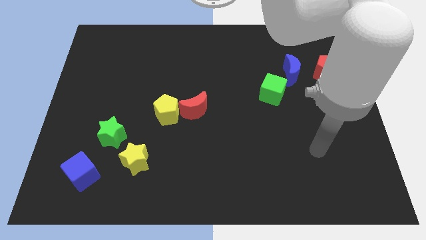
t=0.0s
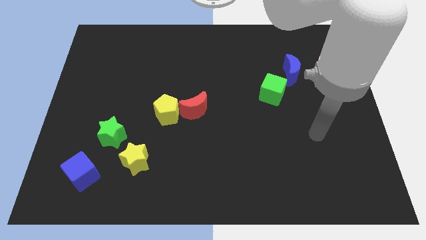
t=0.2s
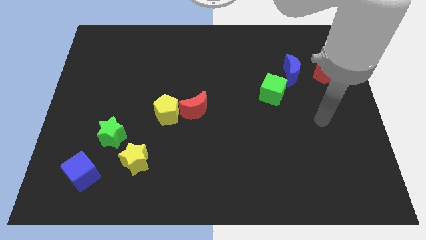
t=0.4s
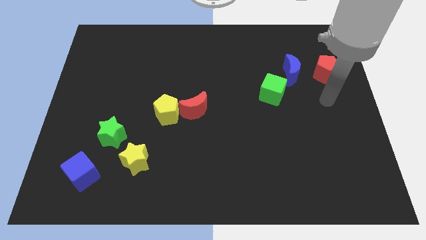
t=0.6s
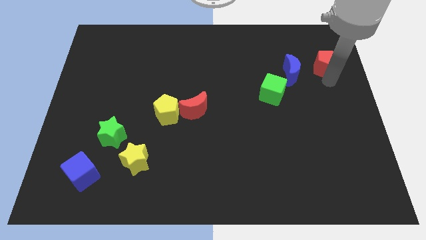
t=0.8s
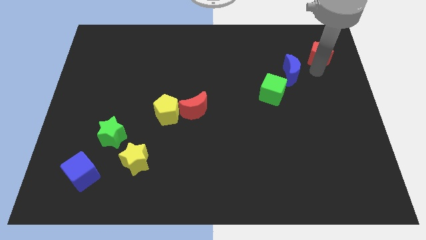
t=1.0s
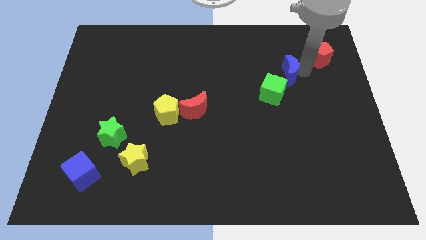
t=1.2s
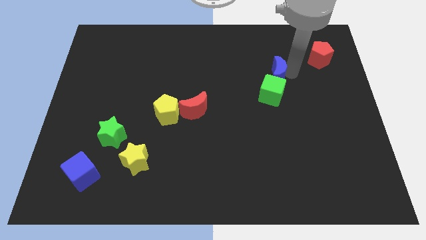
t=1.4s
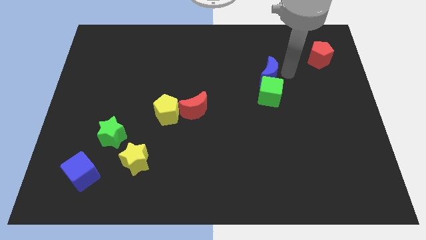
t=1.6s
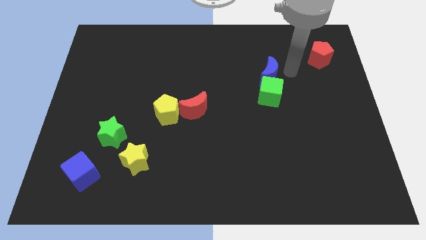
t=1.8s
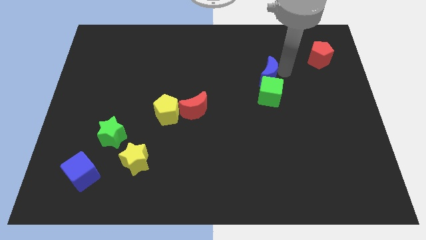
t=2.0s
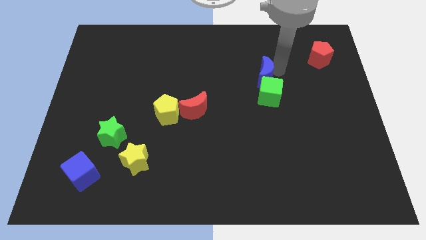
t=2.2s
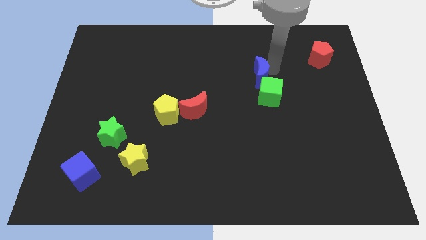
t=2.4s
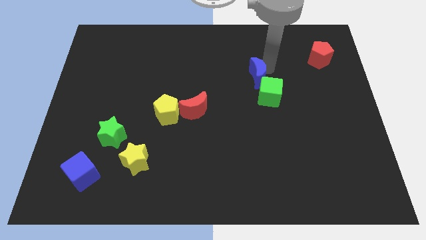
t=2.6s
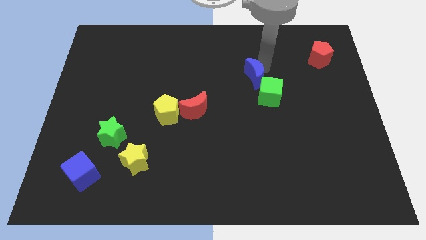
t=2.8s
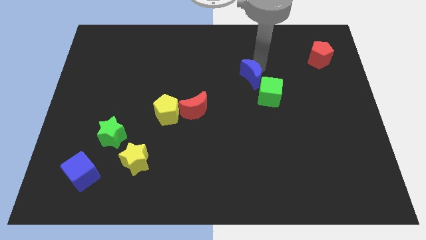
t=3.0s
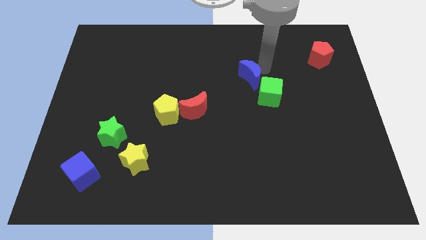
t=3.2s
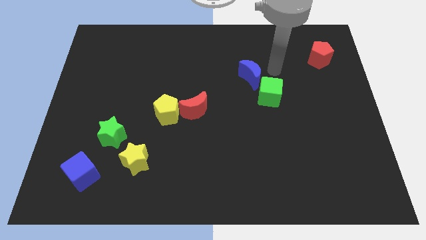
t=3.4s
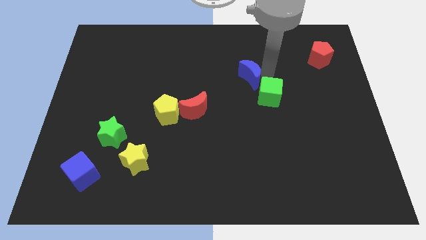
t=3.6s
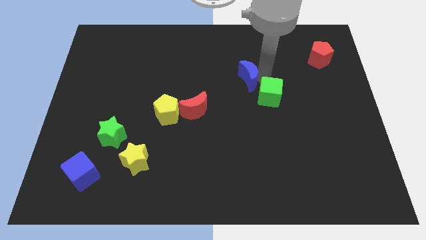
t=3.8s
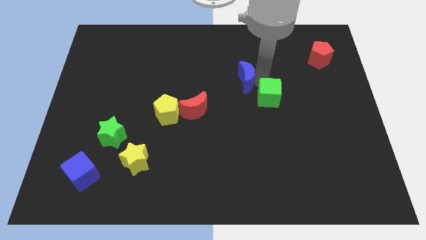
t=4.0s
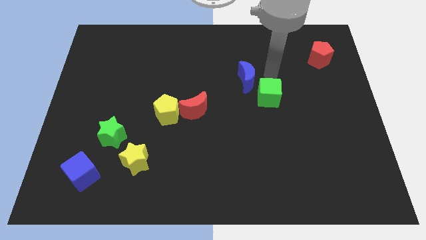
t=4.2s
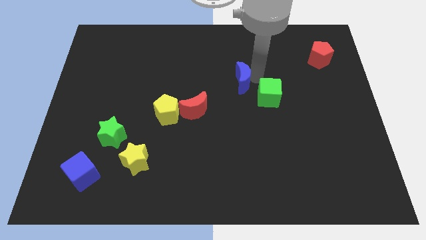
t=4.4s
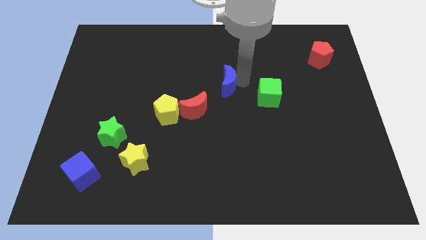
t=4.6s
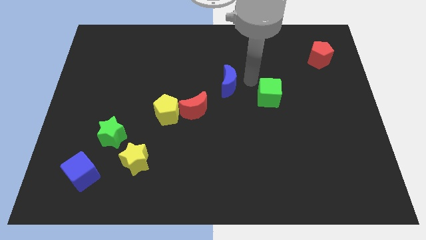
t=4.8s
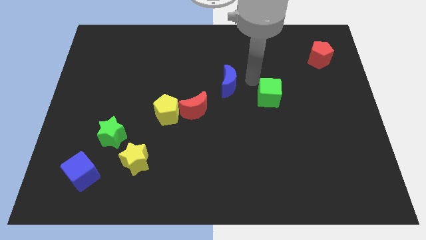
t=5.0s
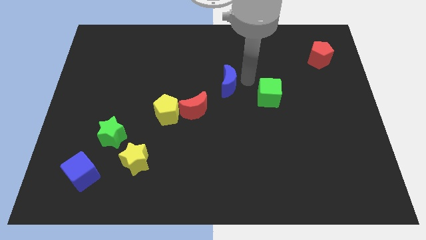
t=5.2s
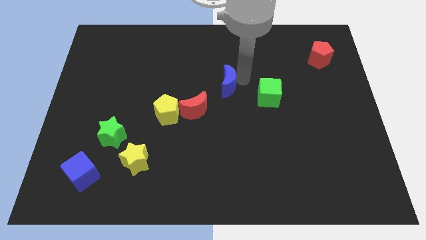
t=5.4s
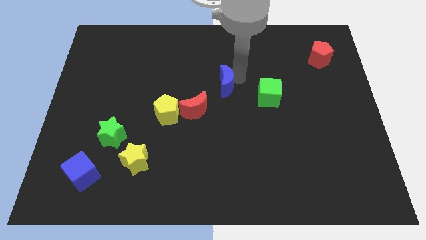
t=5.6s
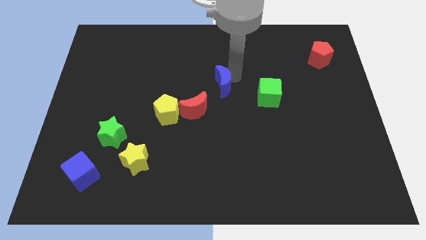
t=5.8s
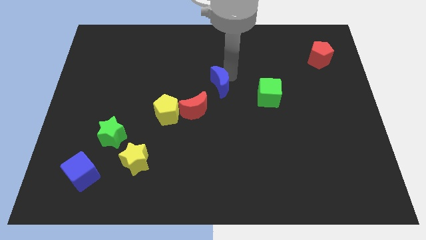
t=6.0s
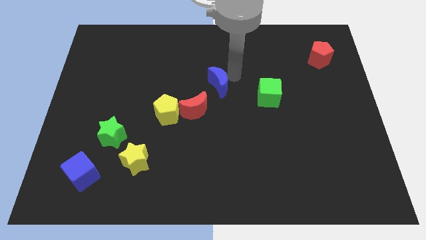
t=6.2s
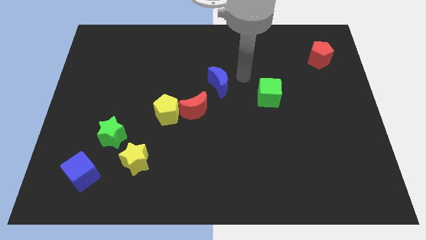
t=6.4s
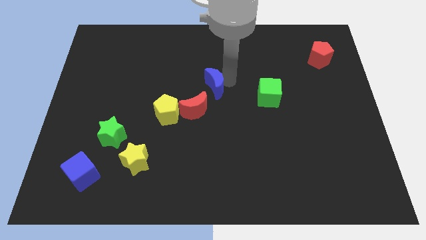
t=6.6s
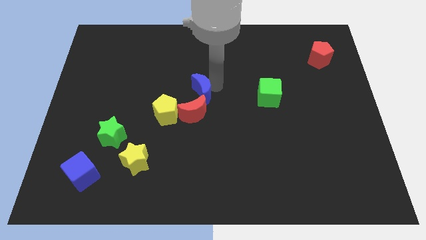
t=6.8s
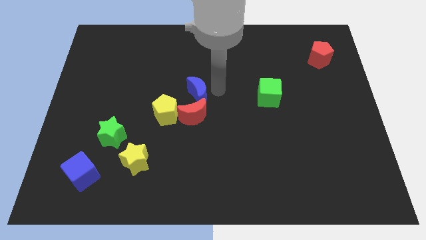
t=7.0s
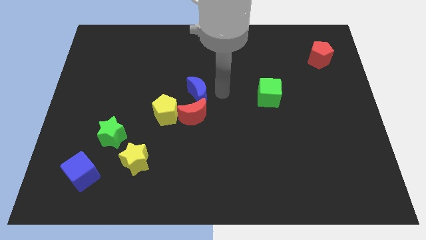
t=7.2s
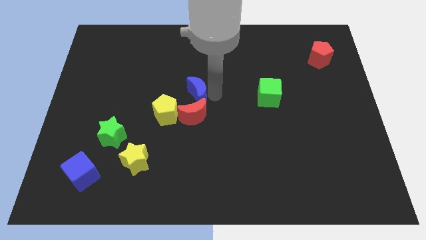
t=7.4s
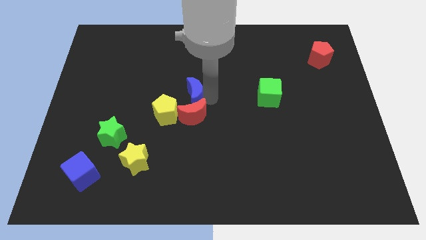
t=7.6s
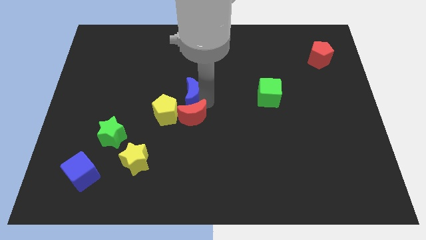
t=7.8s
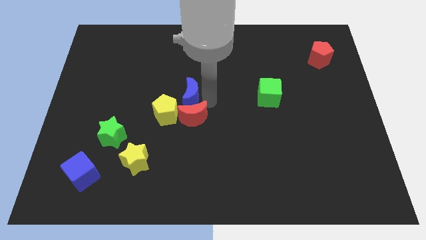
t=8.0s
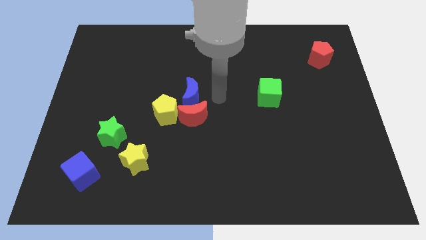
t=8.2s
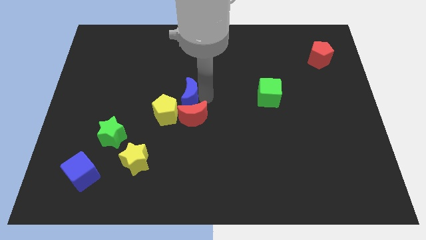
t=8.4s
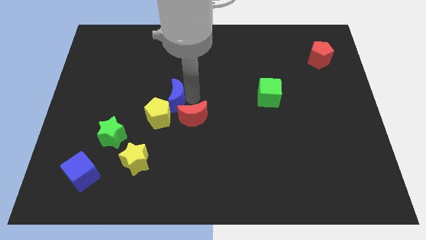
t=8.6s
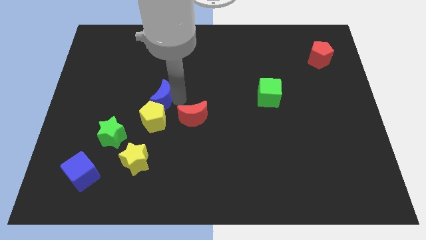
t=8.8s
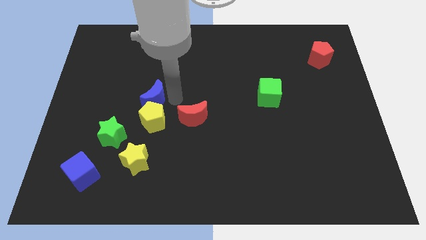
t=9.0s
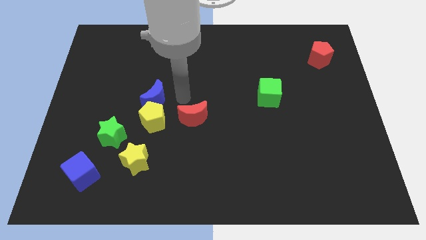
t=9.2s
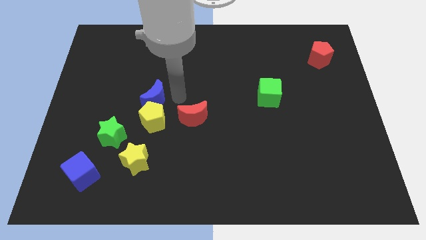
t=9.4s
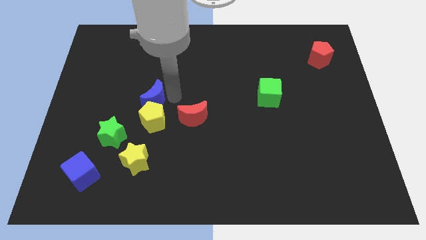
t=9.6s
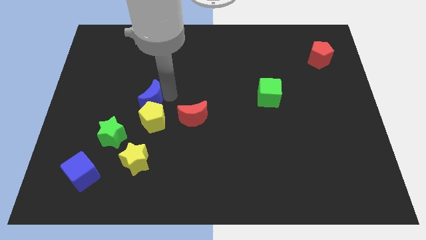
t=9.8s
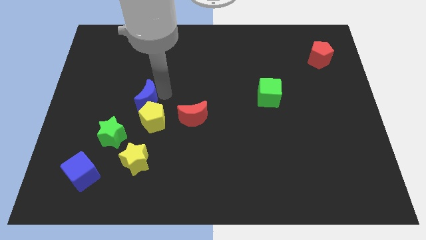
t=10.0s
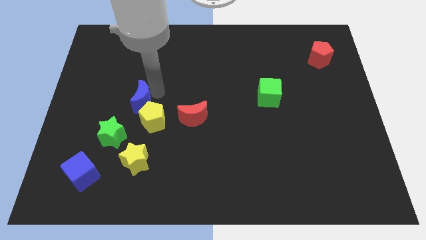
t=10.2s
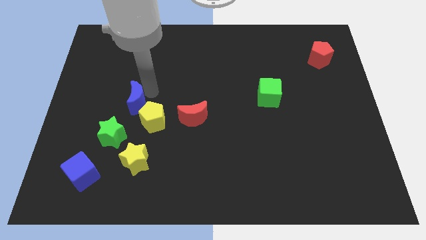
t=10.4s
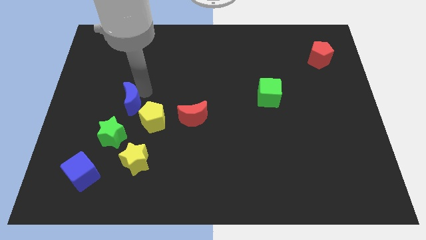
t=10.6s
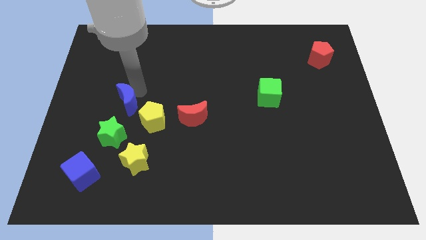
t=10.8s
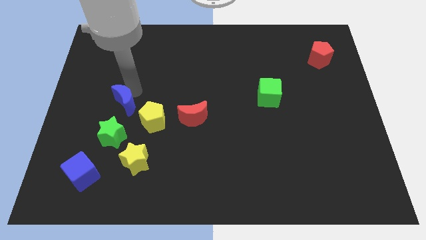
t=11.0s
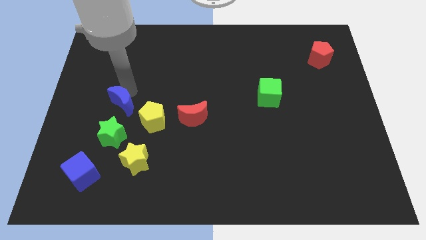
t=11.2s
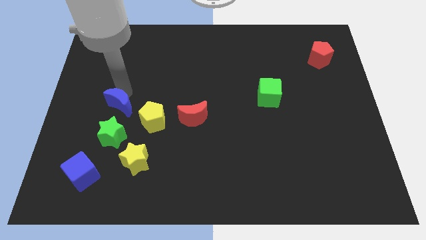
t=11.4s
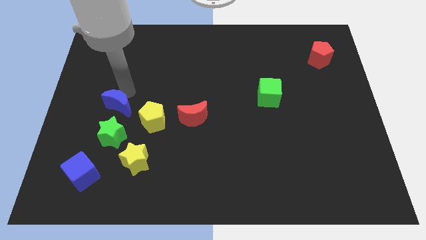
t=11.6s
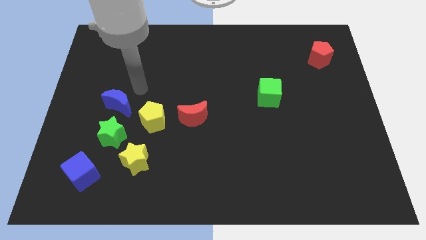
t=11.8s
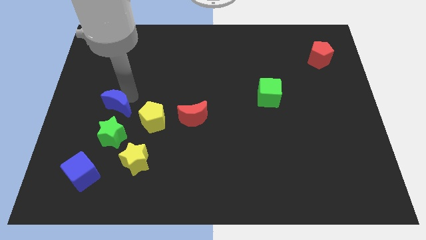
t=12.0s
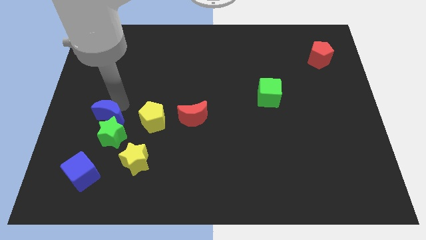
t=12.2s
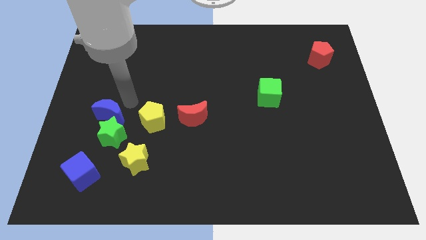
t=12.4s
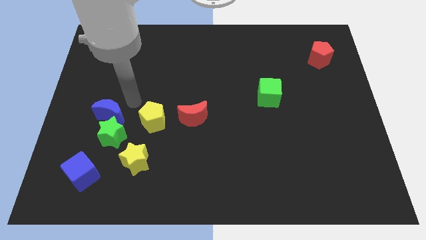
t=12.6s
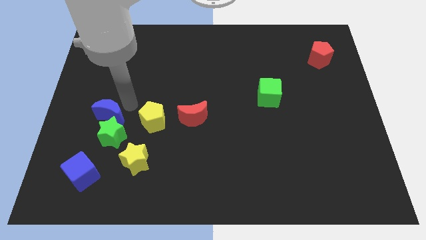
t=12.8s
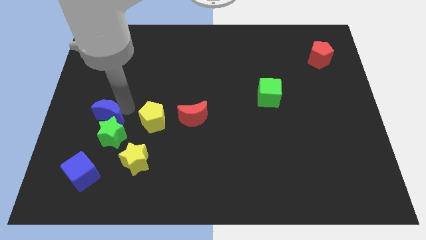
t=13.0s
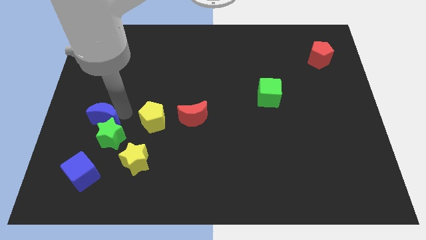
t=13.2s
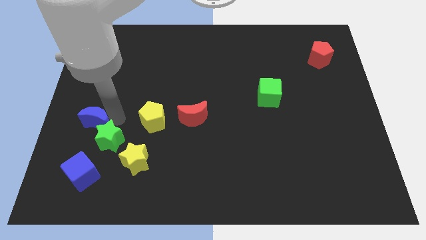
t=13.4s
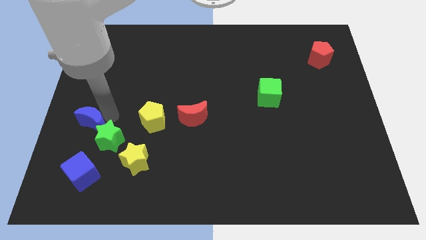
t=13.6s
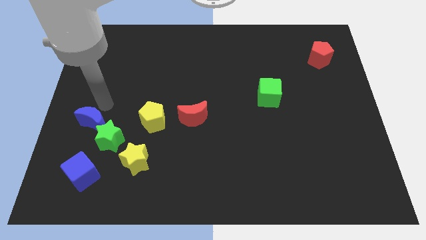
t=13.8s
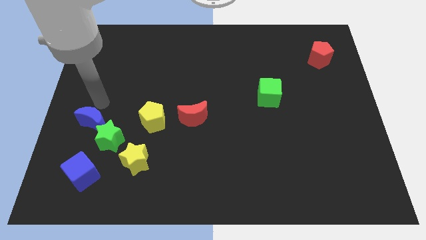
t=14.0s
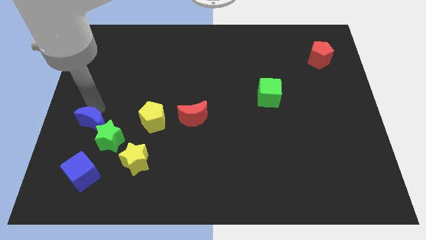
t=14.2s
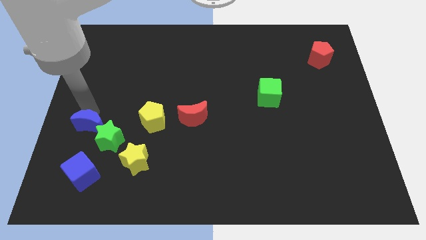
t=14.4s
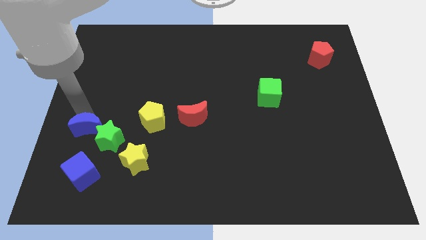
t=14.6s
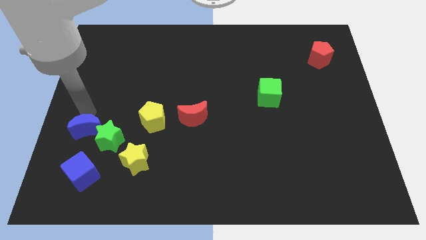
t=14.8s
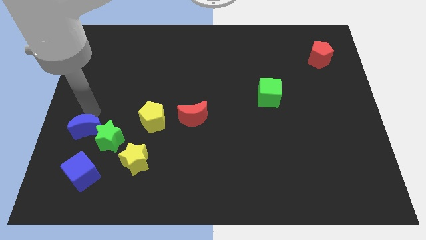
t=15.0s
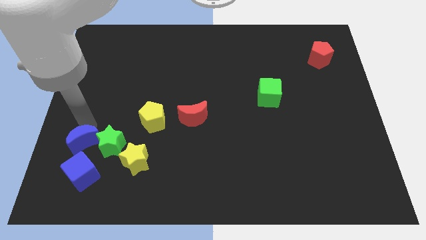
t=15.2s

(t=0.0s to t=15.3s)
move the blue moon to the bottom left side of the green star
